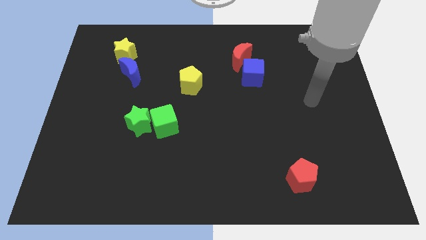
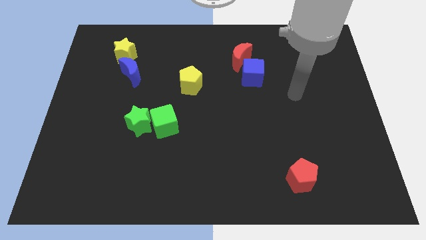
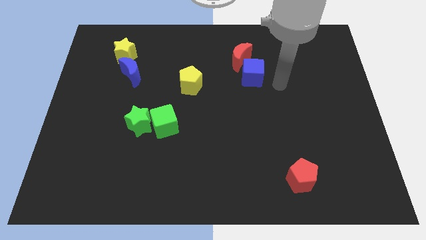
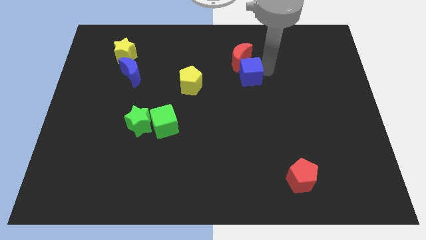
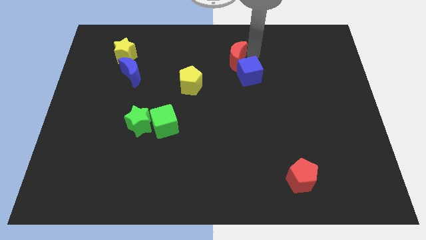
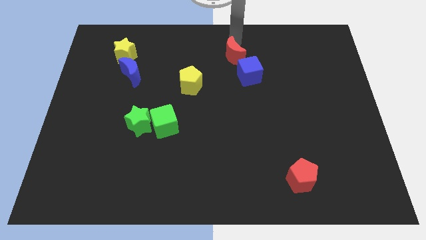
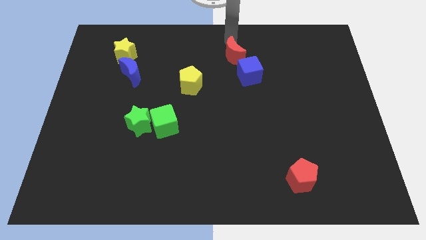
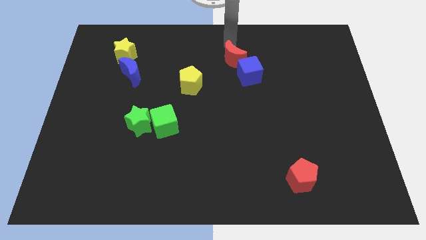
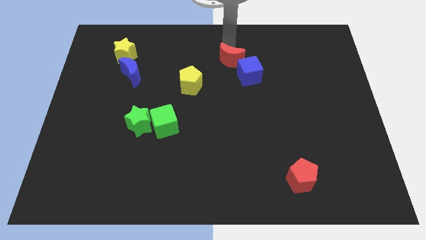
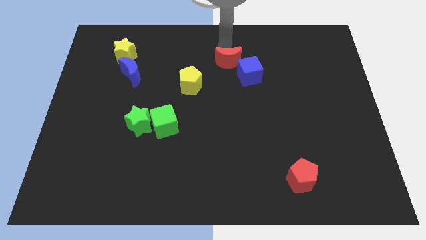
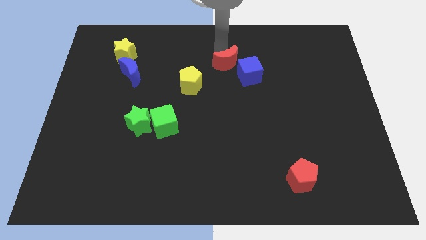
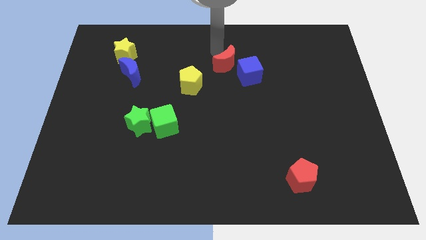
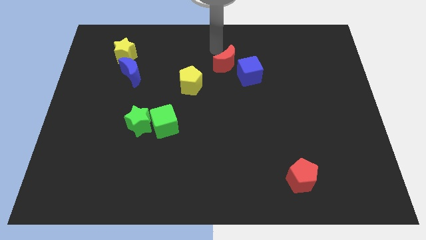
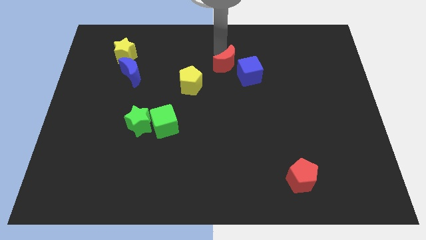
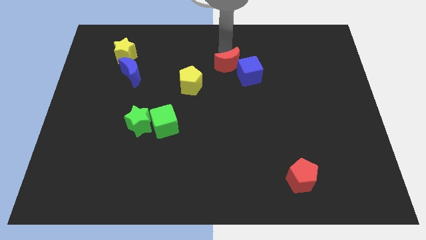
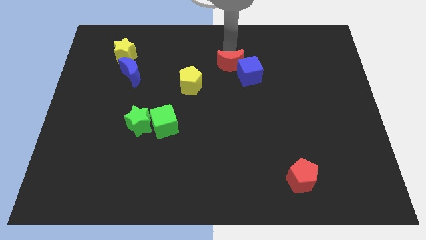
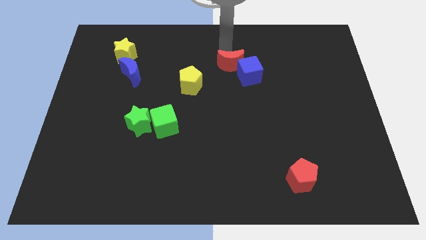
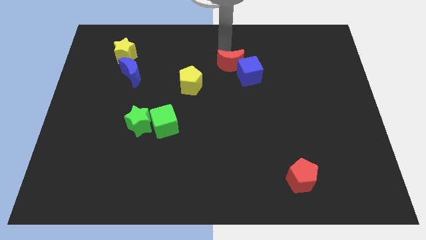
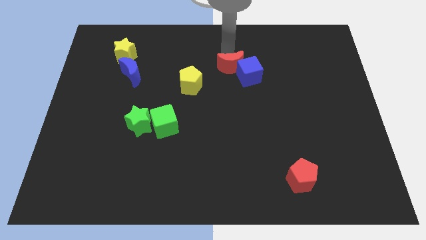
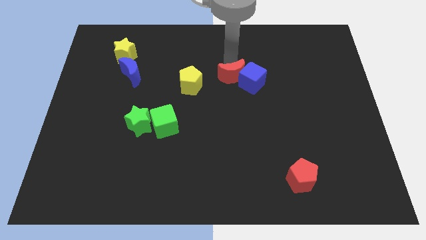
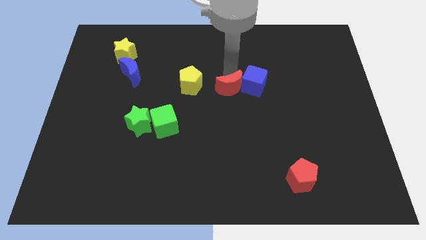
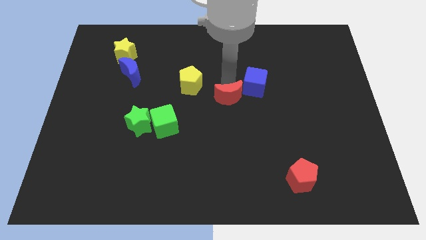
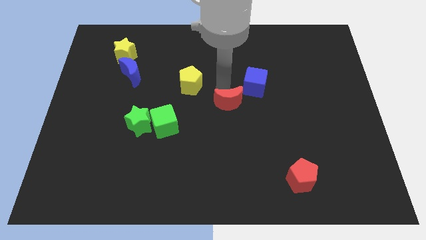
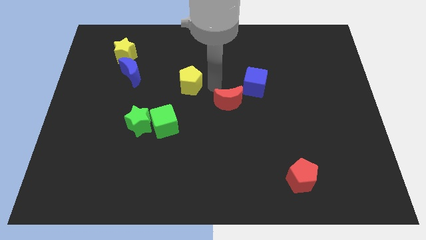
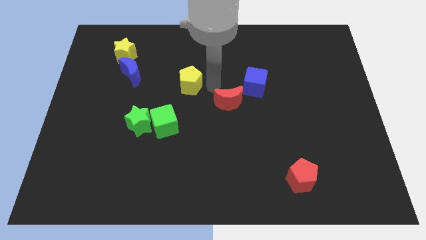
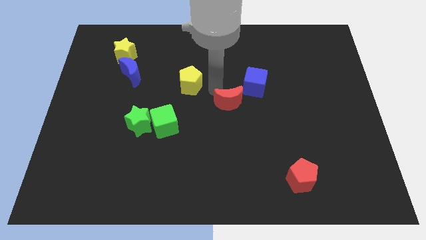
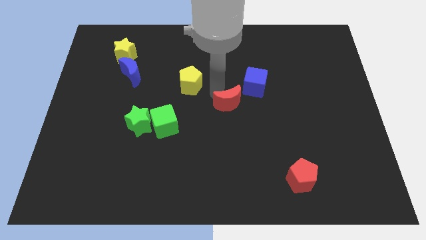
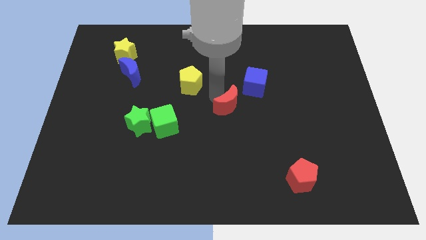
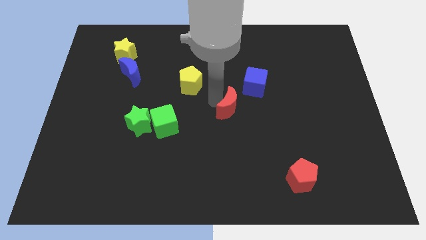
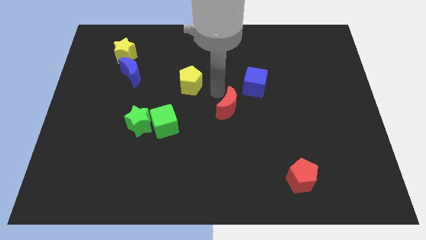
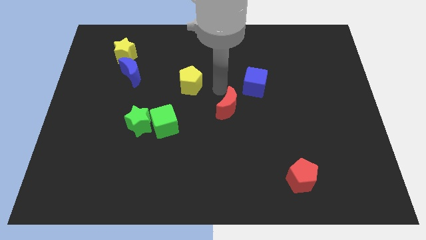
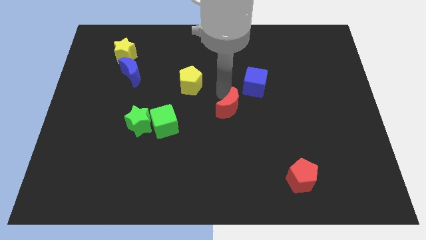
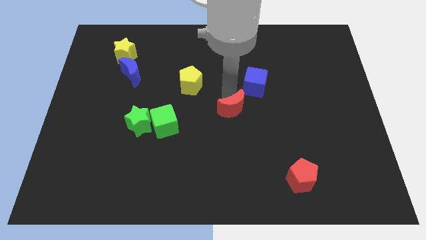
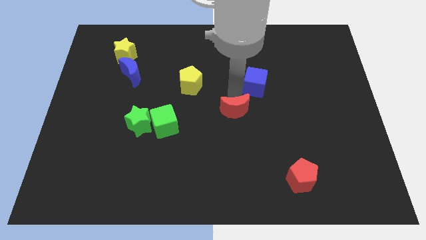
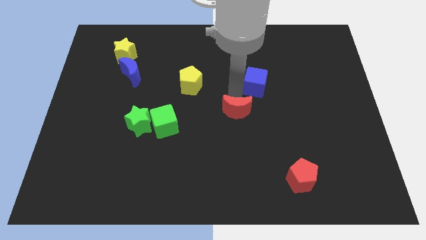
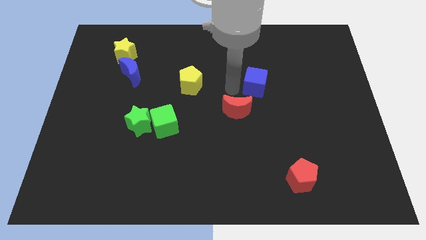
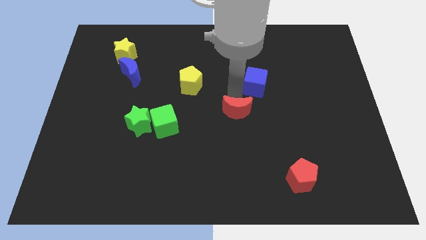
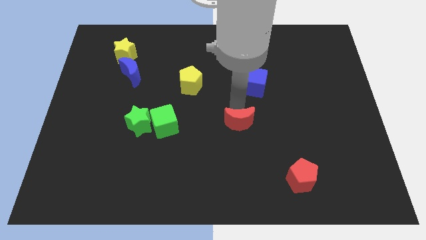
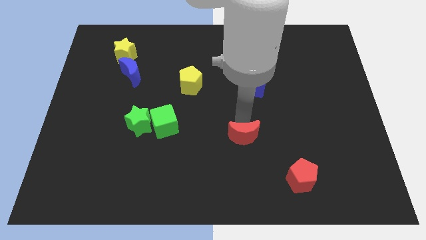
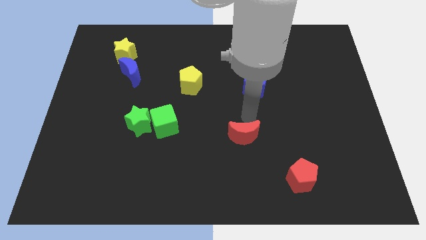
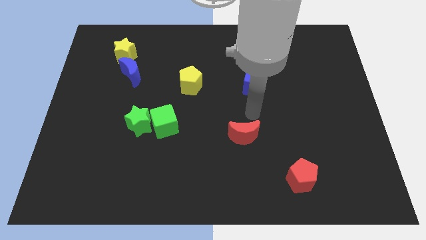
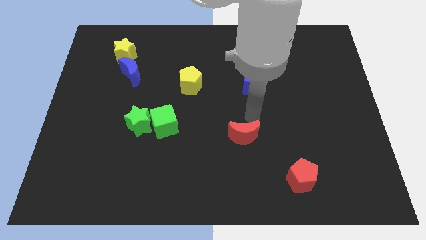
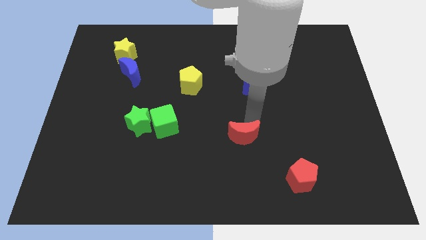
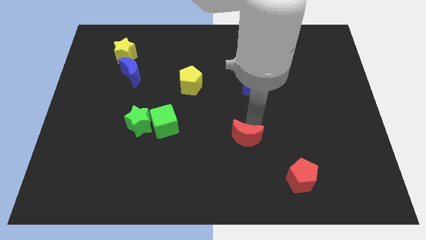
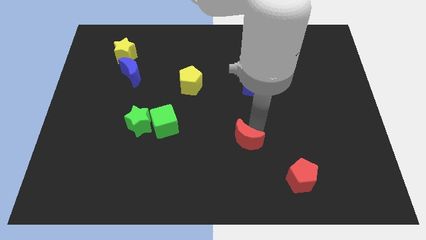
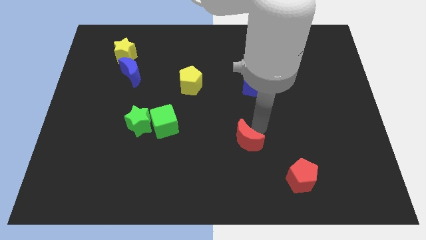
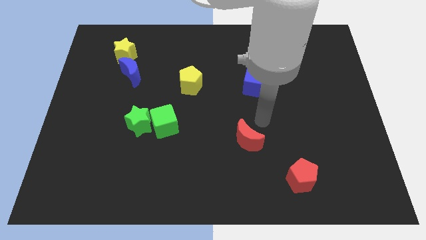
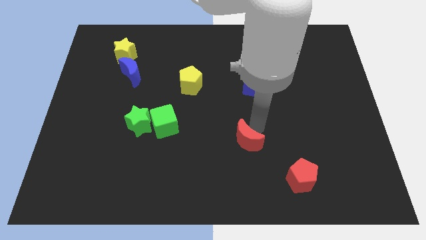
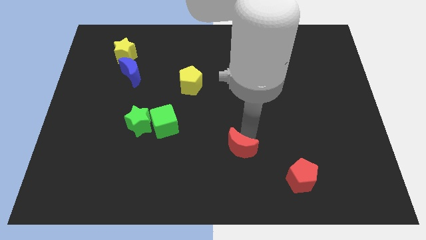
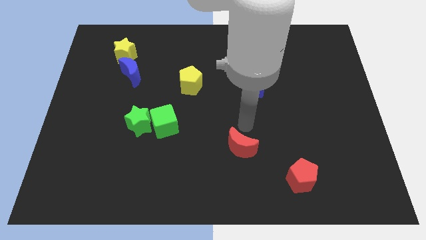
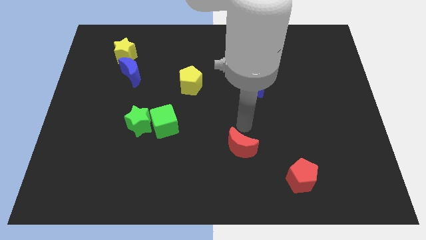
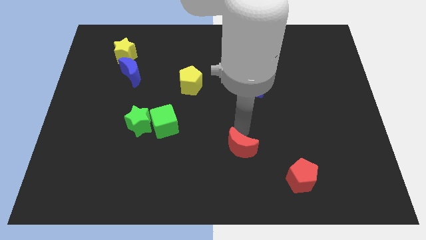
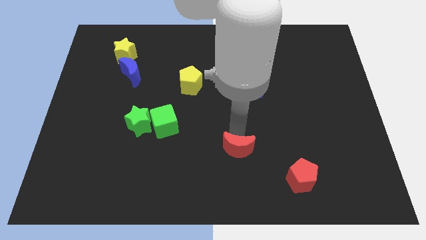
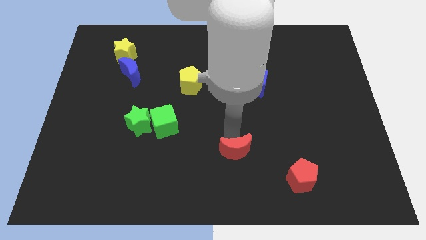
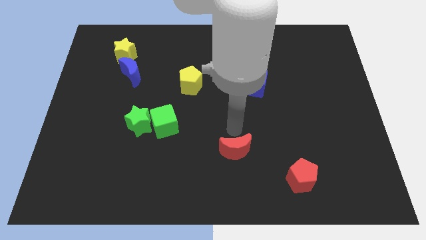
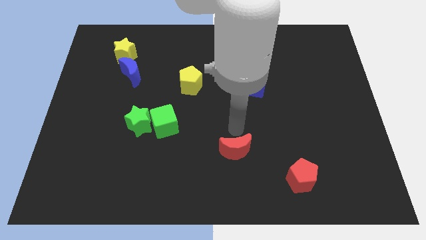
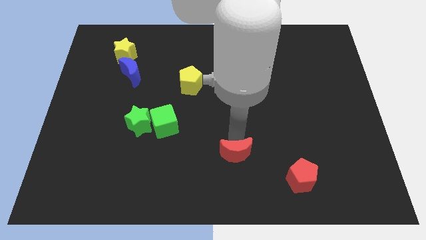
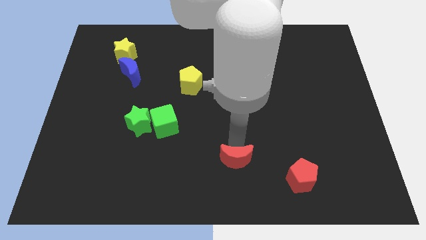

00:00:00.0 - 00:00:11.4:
put the red moon to the bottom side
